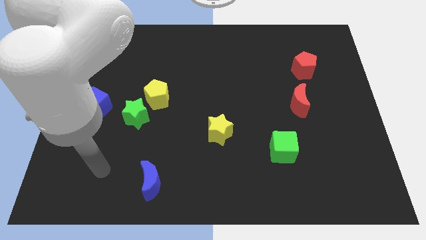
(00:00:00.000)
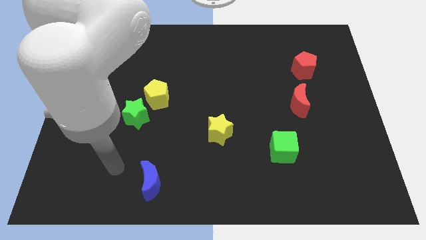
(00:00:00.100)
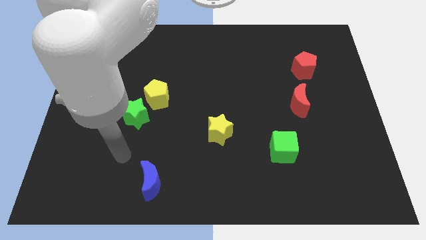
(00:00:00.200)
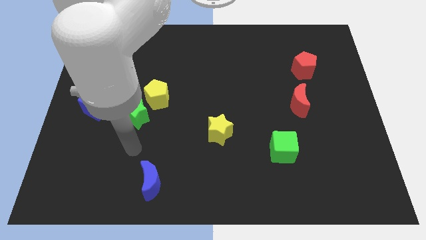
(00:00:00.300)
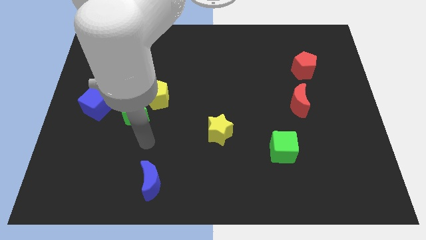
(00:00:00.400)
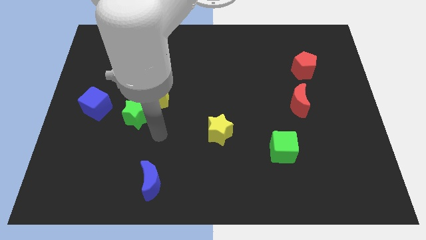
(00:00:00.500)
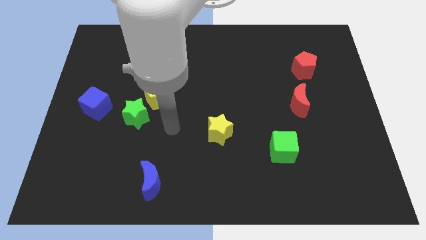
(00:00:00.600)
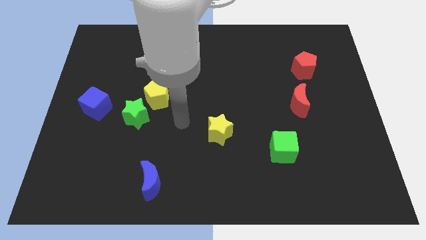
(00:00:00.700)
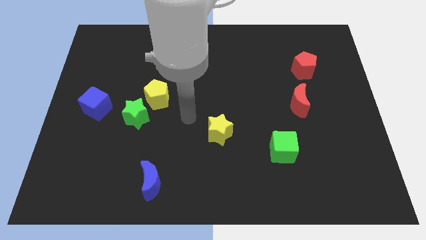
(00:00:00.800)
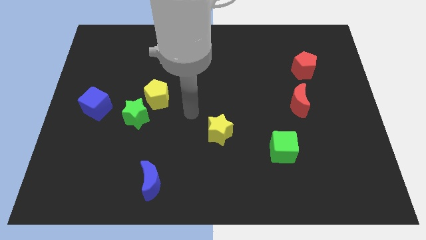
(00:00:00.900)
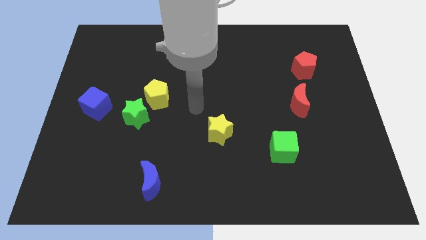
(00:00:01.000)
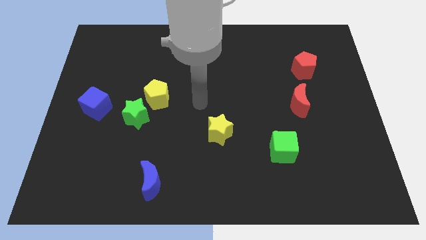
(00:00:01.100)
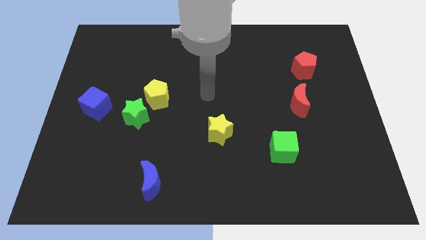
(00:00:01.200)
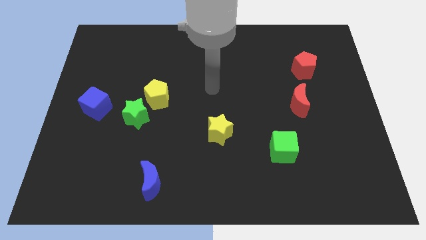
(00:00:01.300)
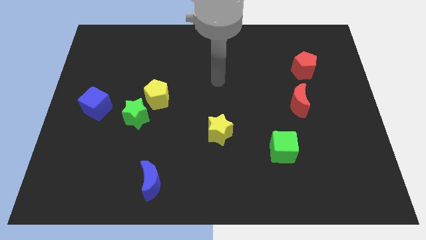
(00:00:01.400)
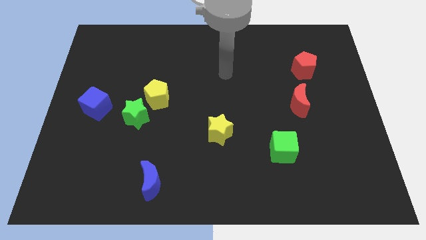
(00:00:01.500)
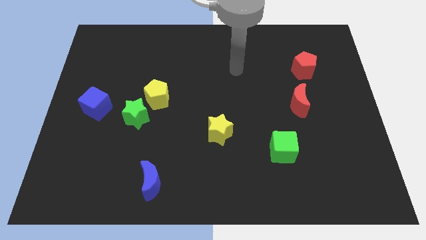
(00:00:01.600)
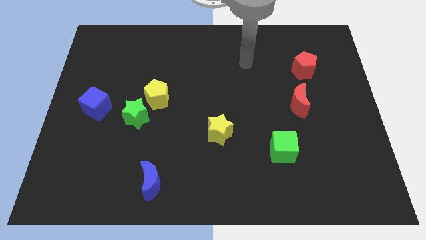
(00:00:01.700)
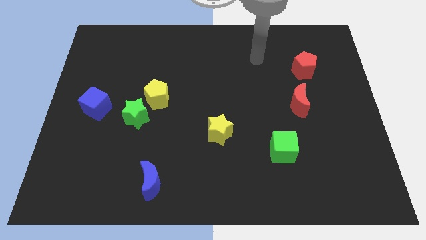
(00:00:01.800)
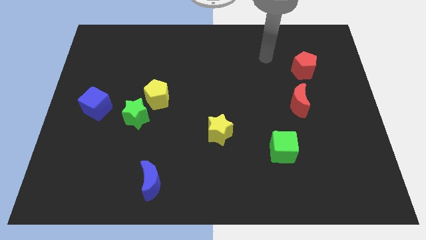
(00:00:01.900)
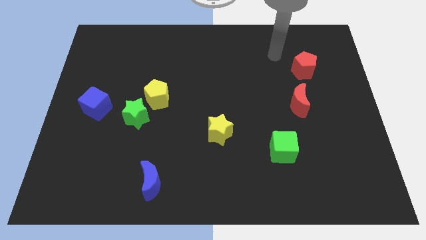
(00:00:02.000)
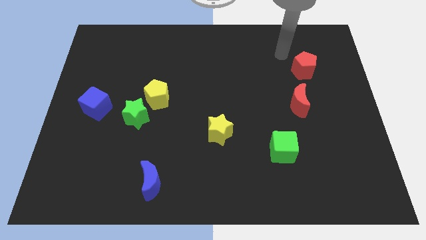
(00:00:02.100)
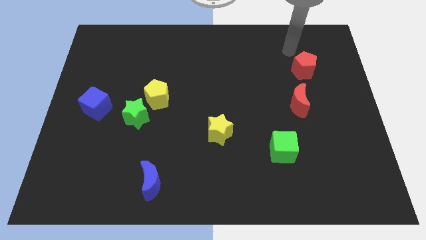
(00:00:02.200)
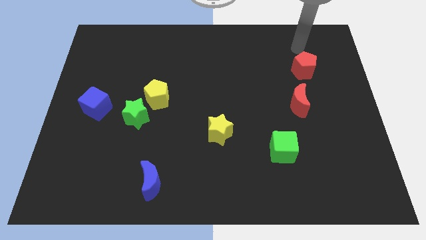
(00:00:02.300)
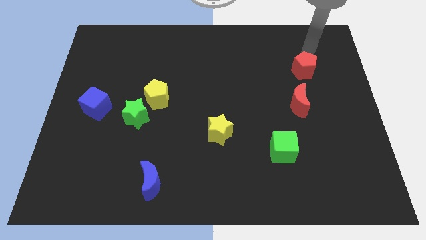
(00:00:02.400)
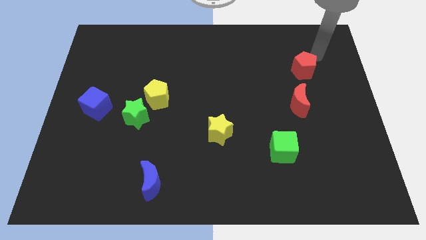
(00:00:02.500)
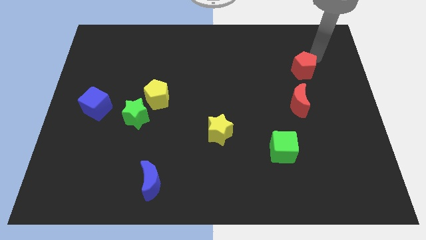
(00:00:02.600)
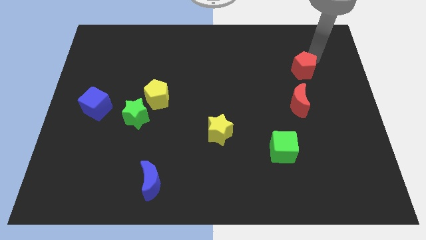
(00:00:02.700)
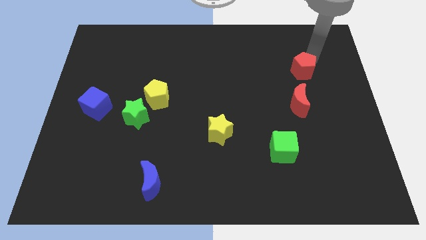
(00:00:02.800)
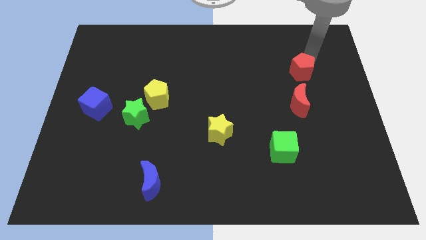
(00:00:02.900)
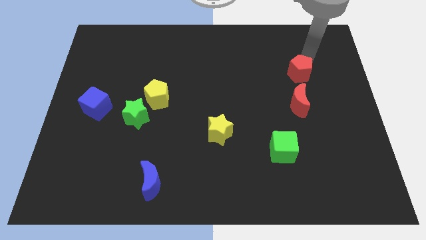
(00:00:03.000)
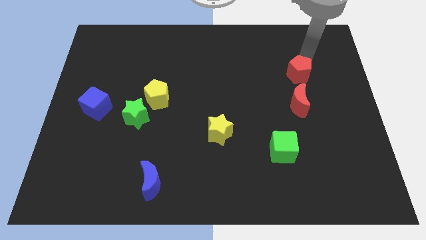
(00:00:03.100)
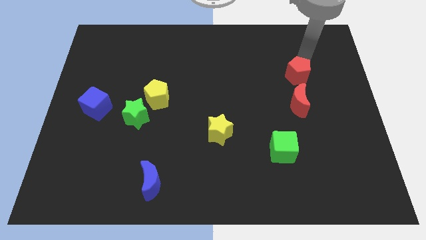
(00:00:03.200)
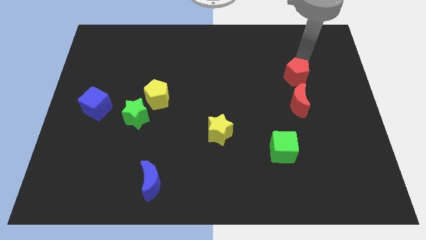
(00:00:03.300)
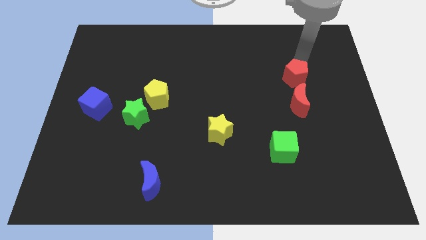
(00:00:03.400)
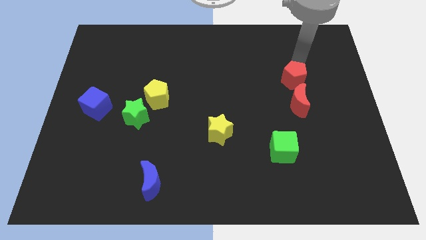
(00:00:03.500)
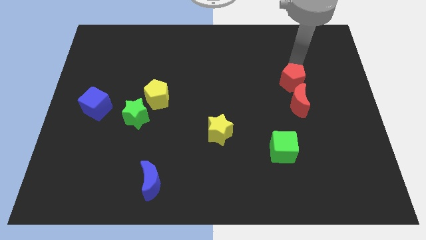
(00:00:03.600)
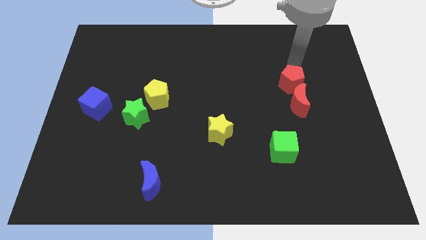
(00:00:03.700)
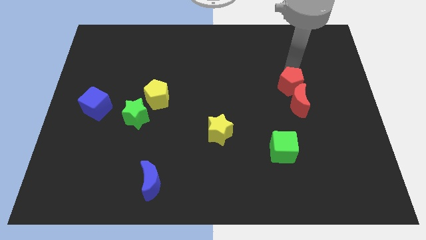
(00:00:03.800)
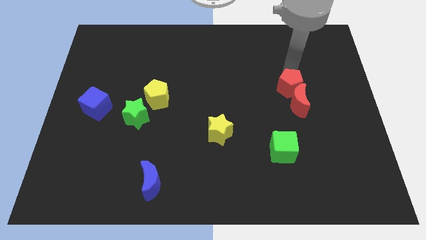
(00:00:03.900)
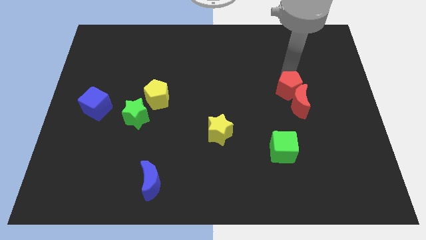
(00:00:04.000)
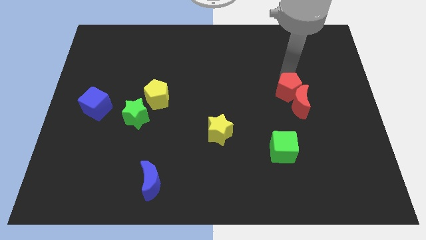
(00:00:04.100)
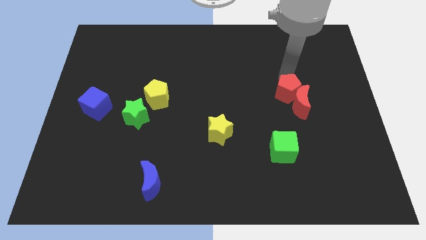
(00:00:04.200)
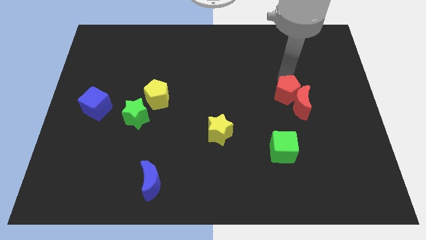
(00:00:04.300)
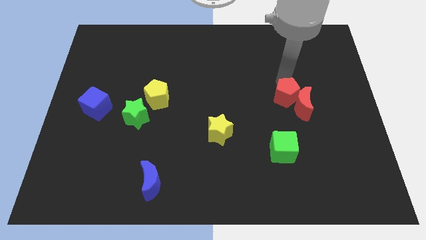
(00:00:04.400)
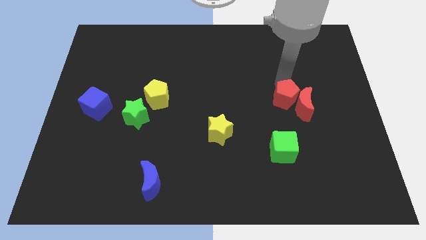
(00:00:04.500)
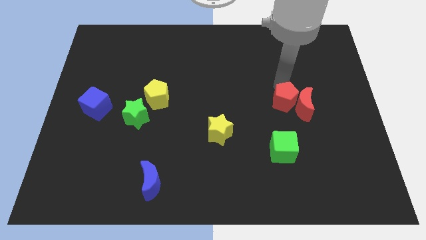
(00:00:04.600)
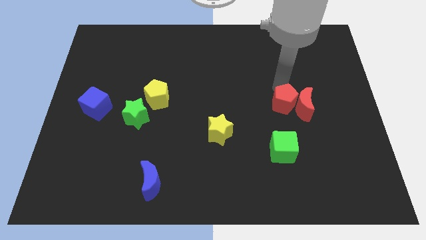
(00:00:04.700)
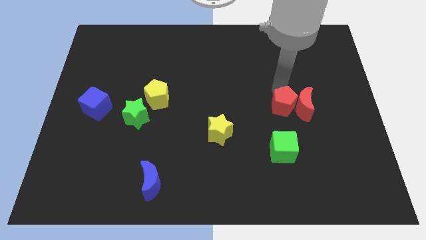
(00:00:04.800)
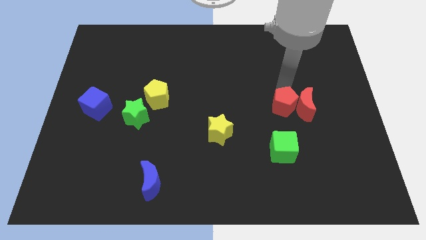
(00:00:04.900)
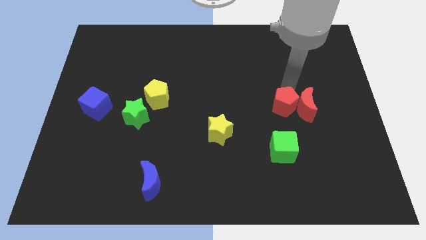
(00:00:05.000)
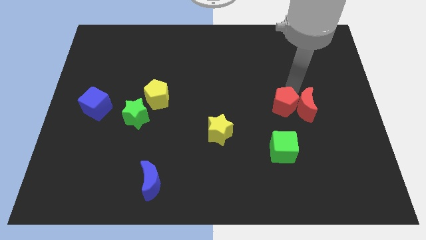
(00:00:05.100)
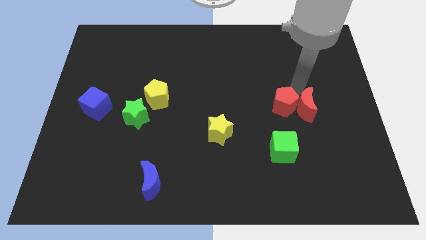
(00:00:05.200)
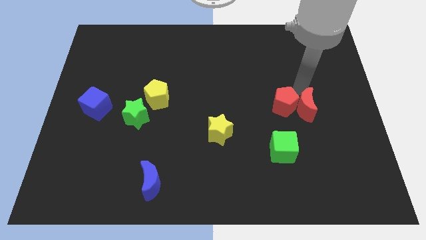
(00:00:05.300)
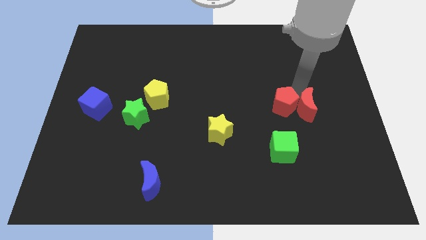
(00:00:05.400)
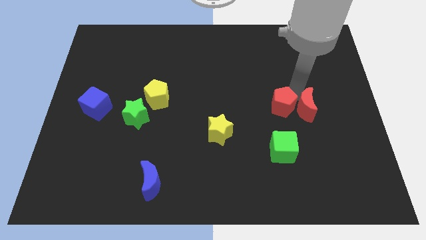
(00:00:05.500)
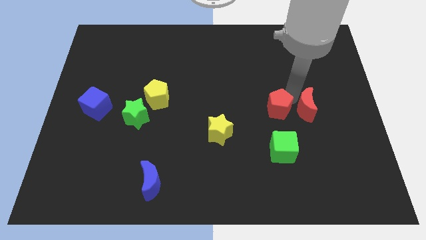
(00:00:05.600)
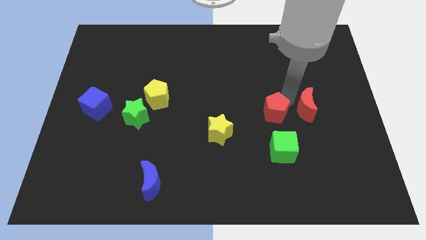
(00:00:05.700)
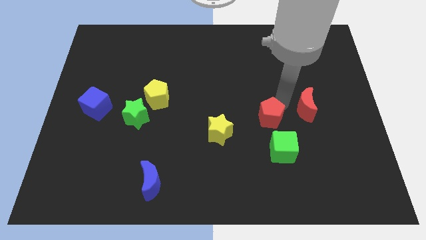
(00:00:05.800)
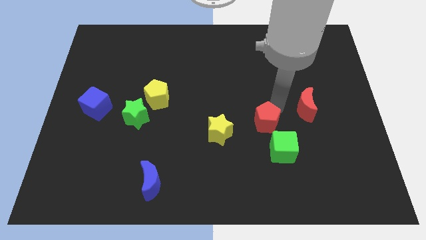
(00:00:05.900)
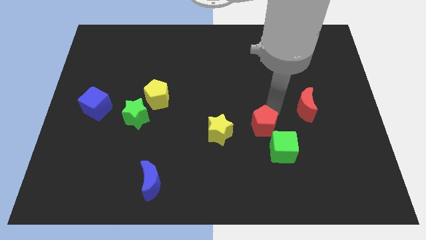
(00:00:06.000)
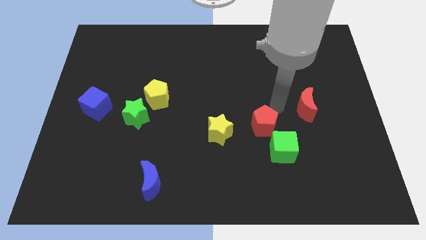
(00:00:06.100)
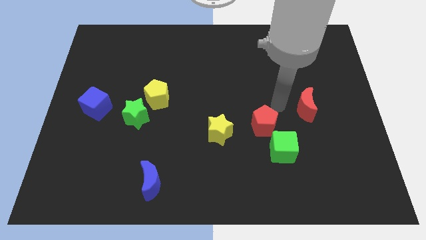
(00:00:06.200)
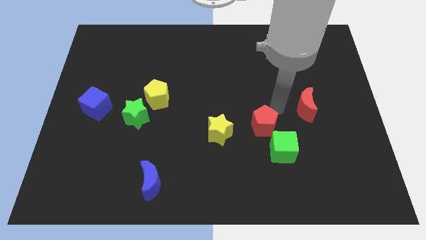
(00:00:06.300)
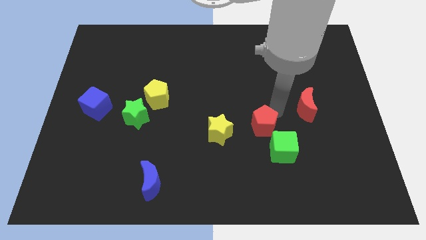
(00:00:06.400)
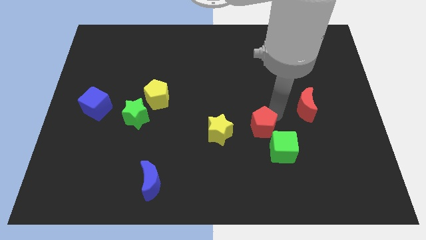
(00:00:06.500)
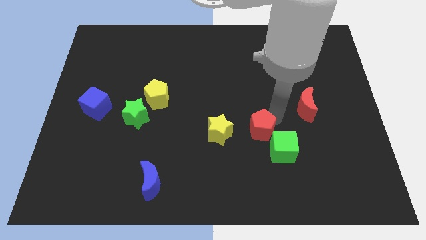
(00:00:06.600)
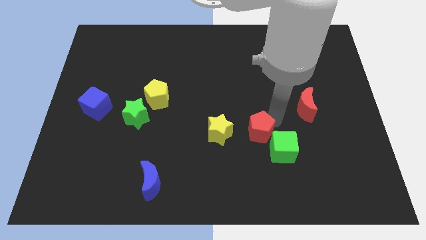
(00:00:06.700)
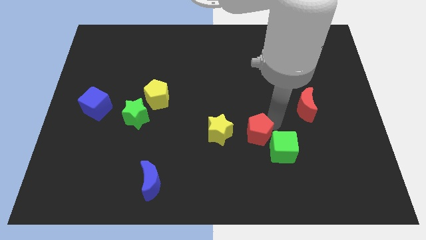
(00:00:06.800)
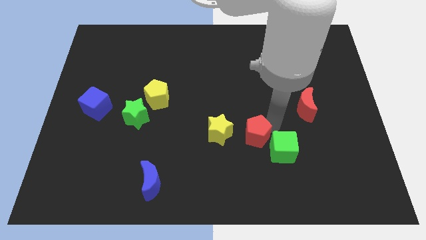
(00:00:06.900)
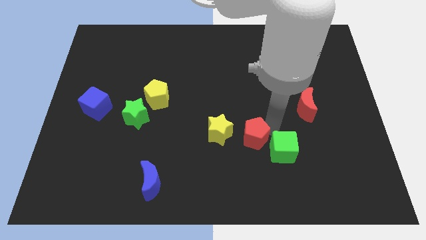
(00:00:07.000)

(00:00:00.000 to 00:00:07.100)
push the red pentagon diagonally down and to the right of the yellow star
